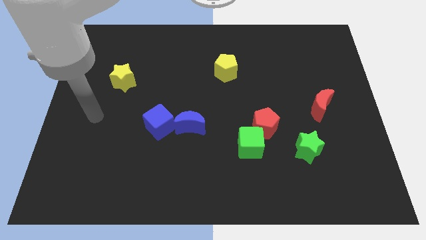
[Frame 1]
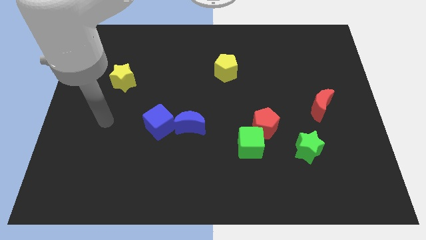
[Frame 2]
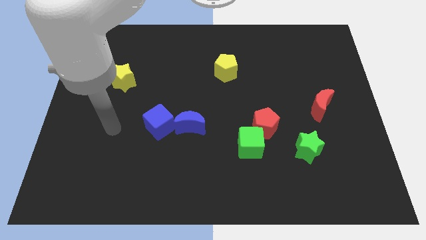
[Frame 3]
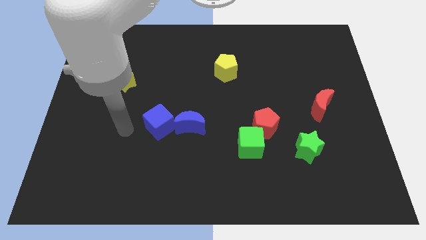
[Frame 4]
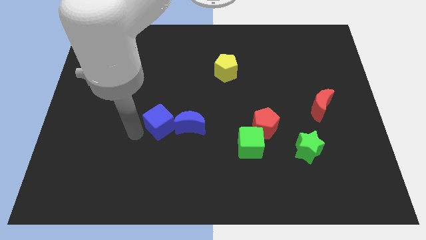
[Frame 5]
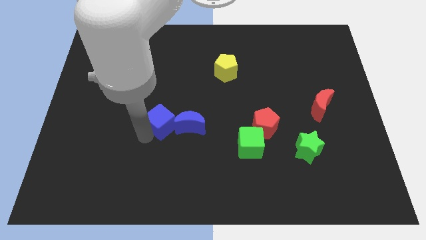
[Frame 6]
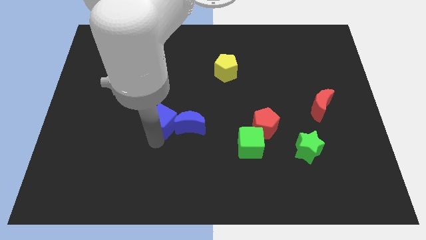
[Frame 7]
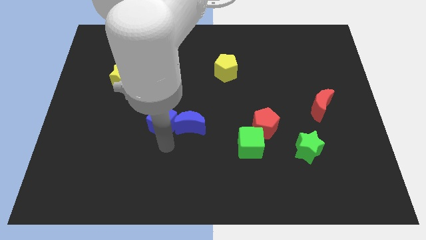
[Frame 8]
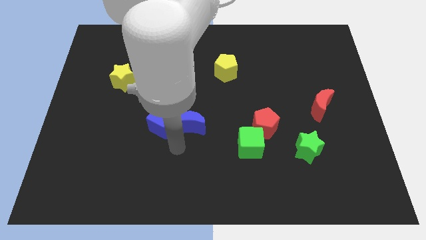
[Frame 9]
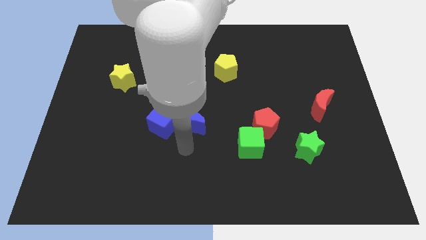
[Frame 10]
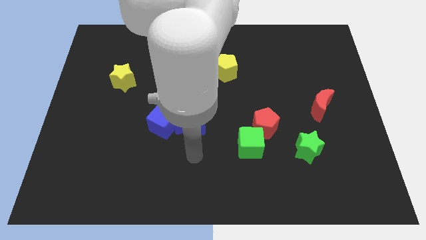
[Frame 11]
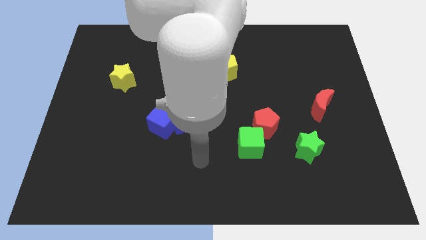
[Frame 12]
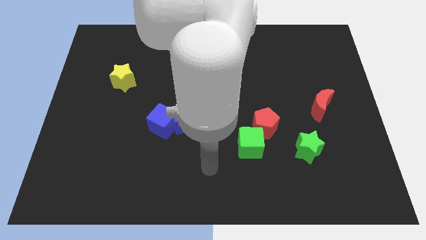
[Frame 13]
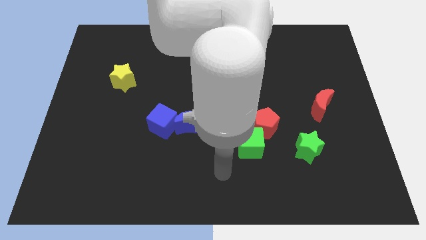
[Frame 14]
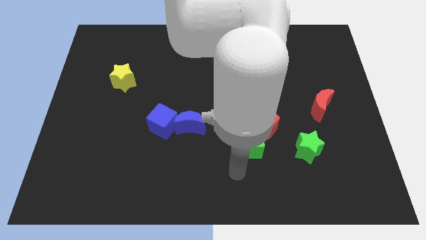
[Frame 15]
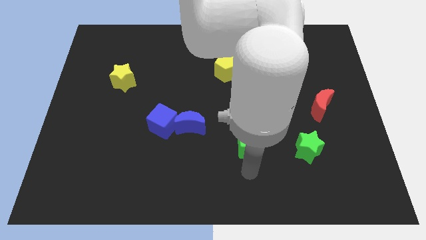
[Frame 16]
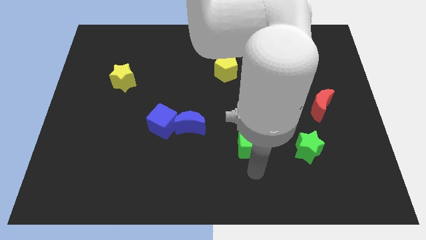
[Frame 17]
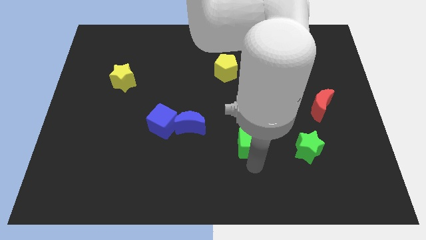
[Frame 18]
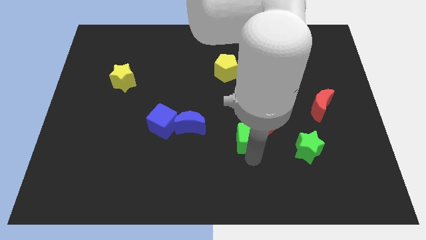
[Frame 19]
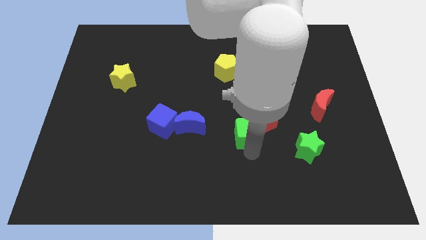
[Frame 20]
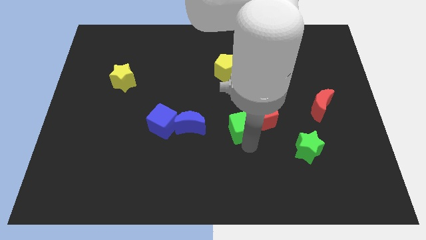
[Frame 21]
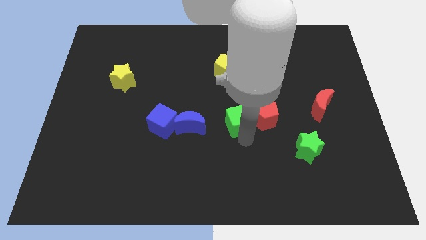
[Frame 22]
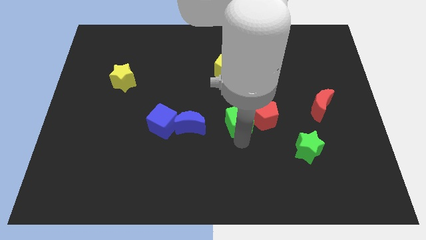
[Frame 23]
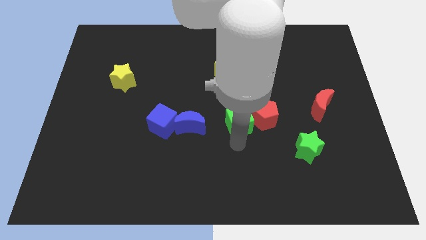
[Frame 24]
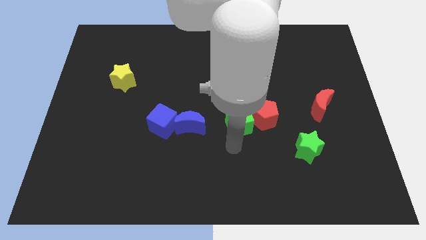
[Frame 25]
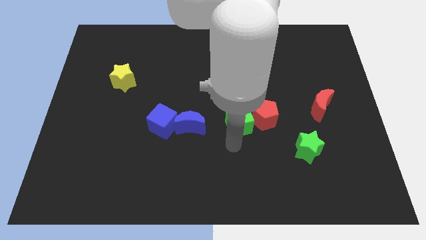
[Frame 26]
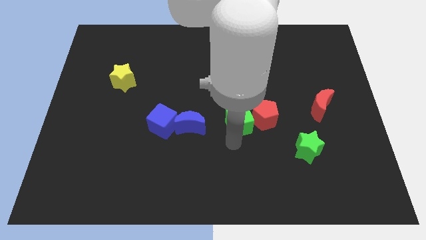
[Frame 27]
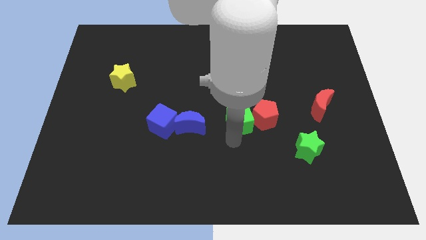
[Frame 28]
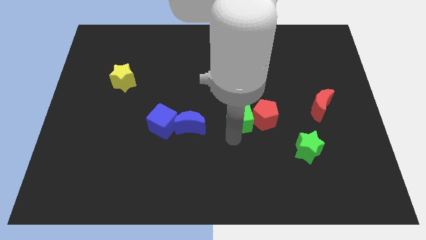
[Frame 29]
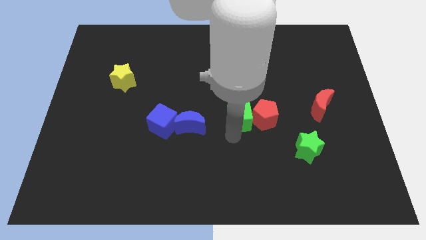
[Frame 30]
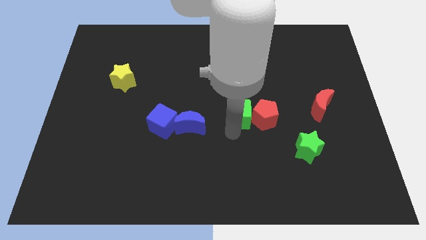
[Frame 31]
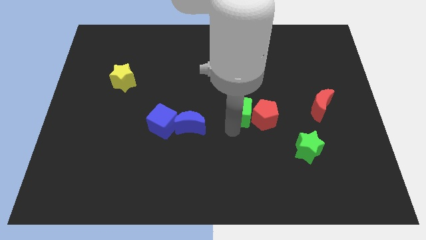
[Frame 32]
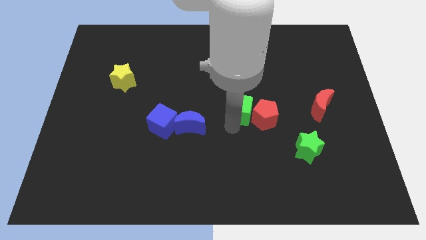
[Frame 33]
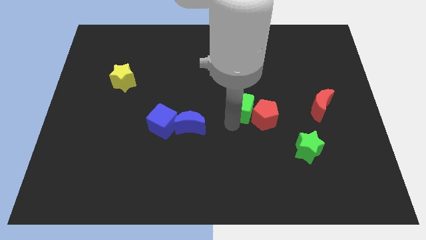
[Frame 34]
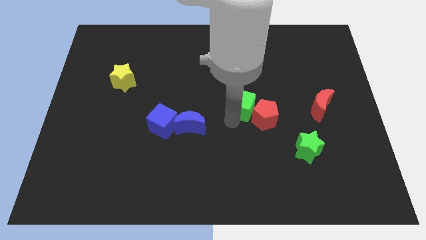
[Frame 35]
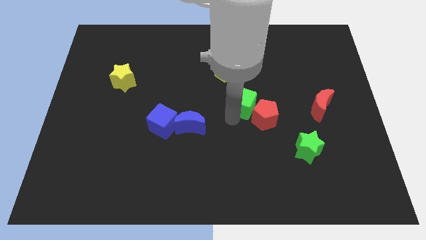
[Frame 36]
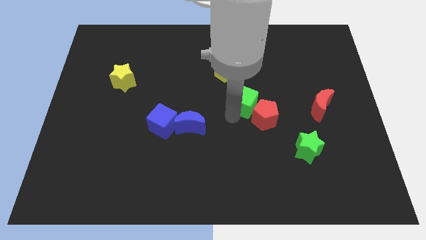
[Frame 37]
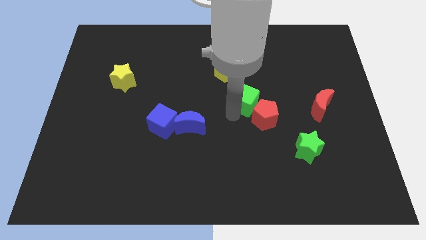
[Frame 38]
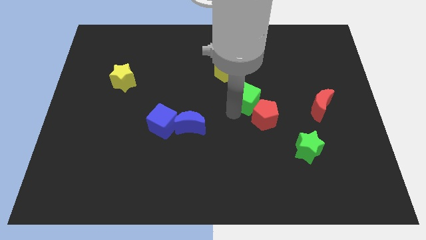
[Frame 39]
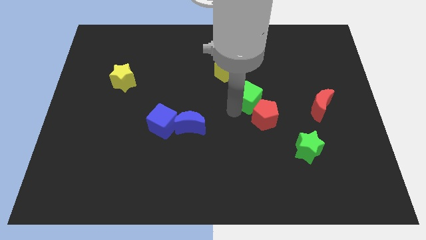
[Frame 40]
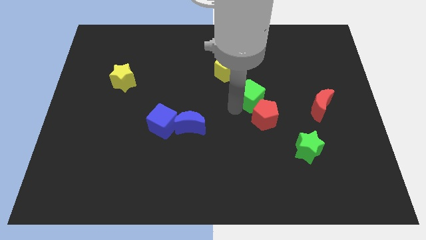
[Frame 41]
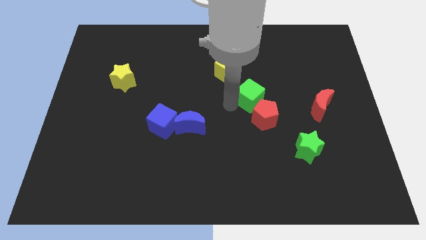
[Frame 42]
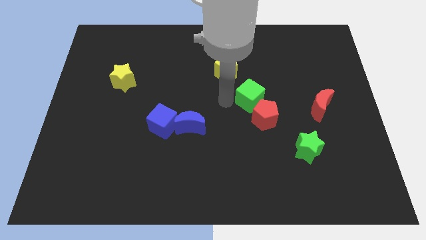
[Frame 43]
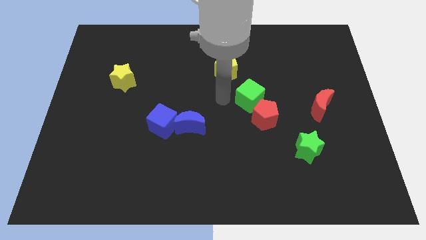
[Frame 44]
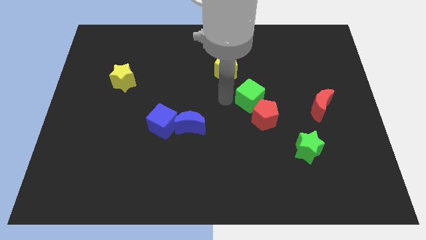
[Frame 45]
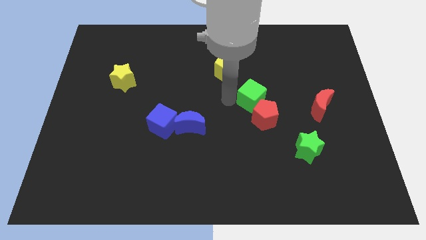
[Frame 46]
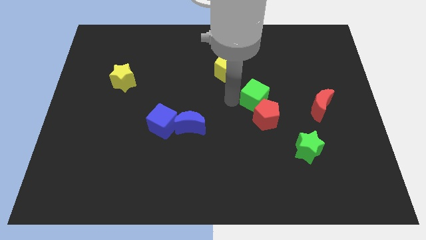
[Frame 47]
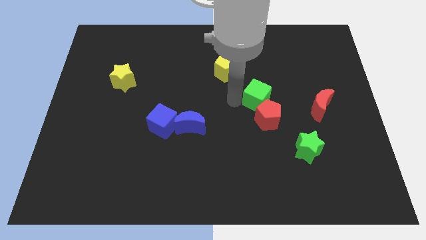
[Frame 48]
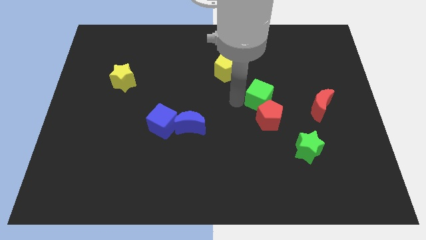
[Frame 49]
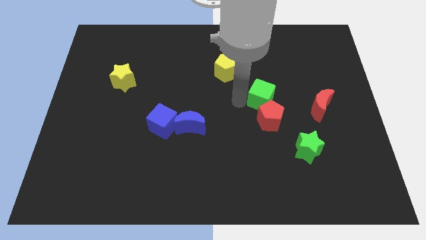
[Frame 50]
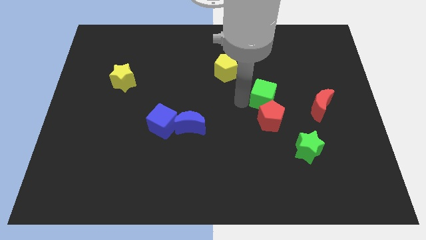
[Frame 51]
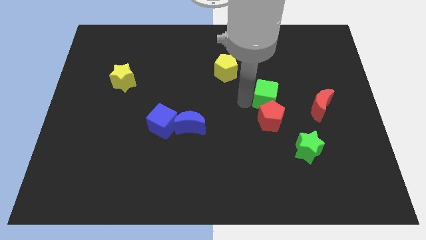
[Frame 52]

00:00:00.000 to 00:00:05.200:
put the green cube diagonally up and to the right of the red pentagon

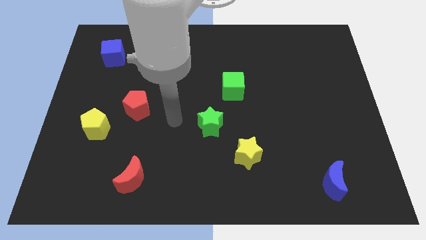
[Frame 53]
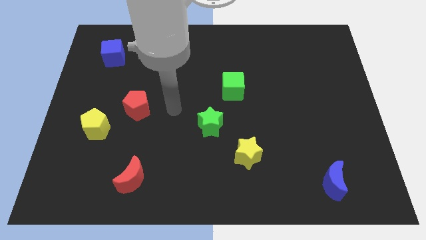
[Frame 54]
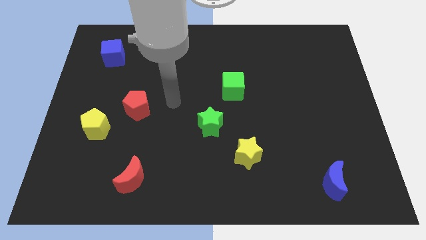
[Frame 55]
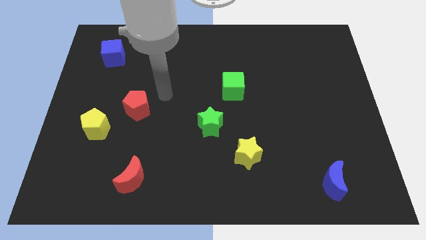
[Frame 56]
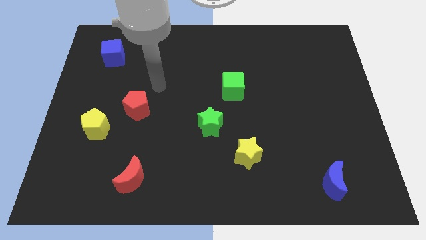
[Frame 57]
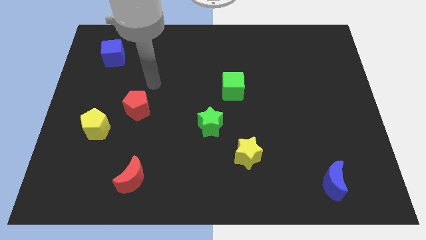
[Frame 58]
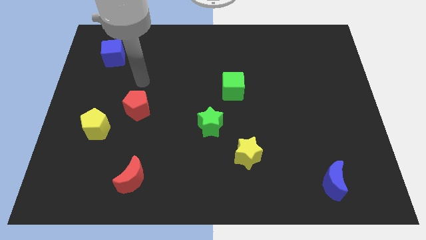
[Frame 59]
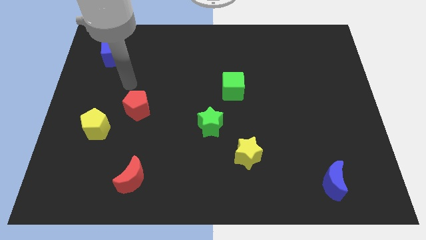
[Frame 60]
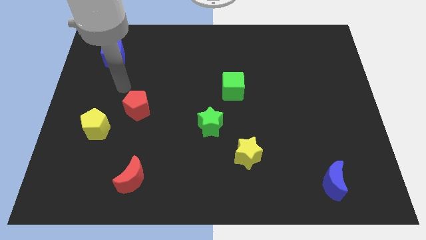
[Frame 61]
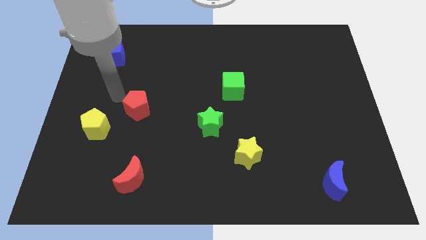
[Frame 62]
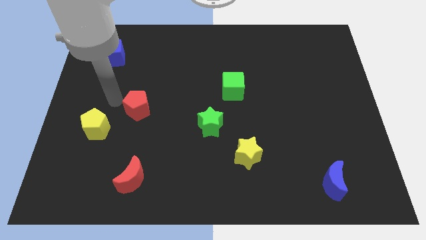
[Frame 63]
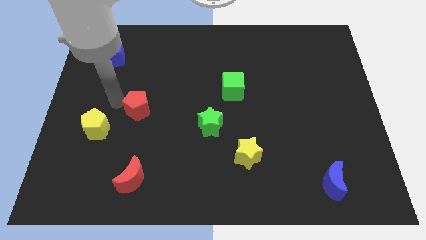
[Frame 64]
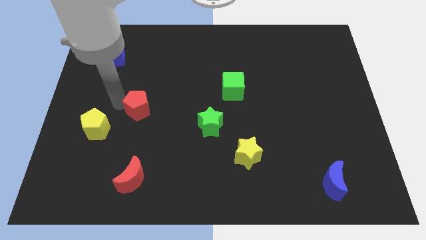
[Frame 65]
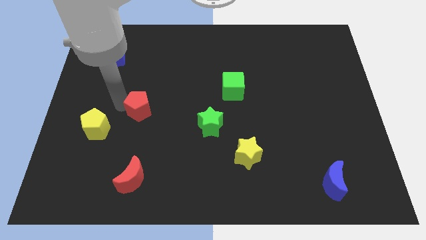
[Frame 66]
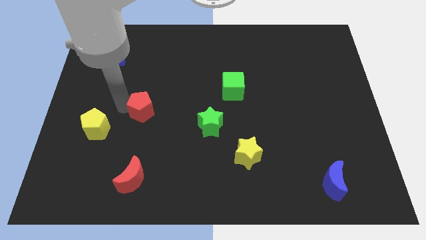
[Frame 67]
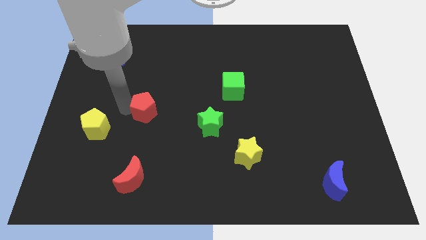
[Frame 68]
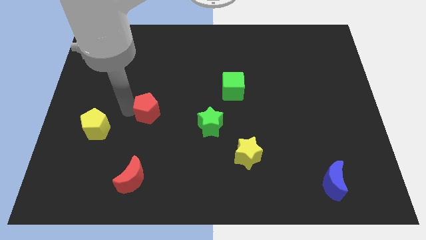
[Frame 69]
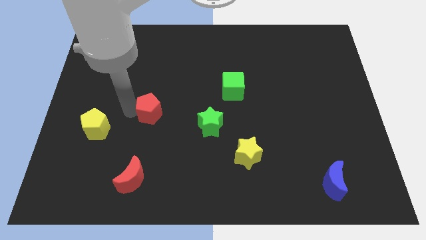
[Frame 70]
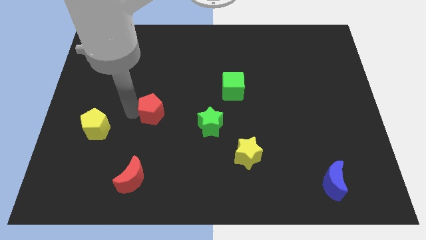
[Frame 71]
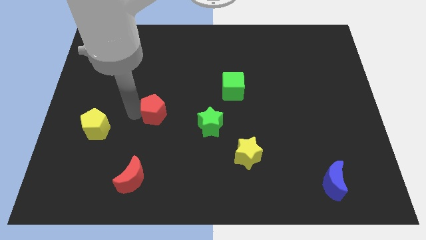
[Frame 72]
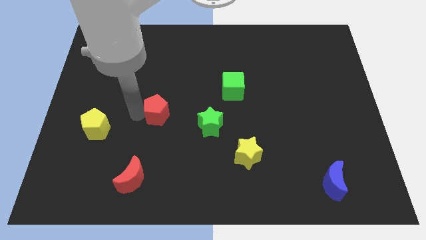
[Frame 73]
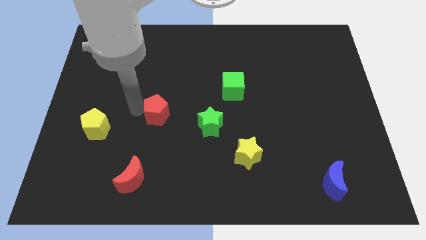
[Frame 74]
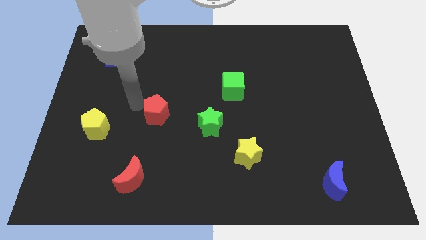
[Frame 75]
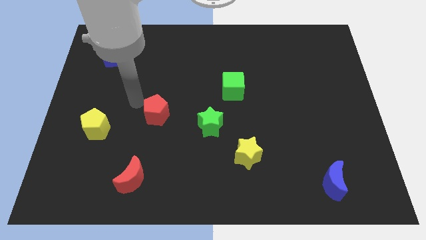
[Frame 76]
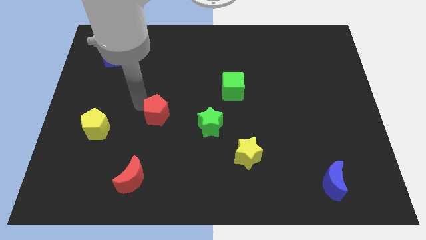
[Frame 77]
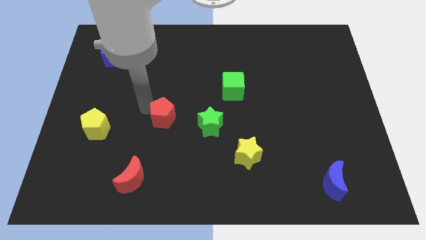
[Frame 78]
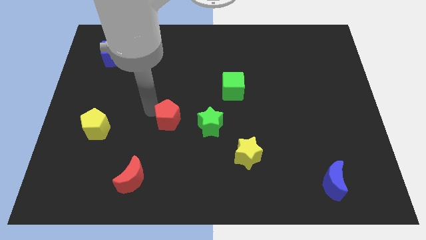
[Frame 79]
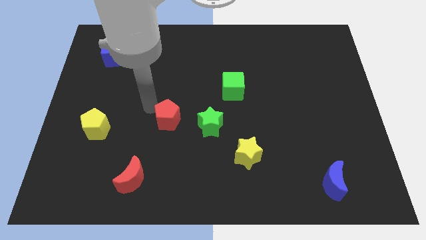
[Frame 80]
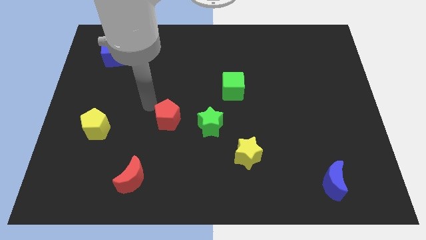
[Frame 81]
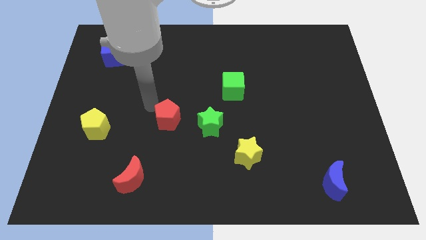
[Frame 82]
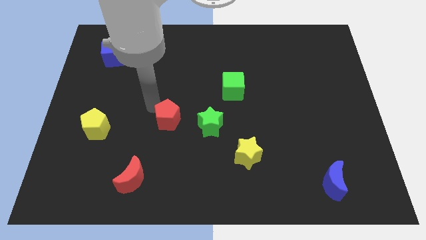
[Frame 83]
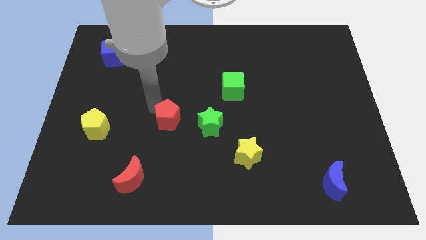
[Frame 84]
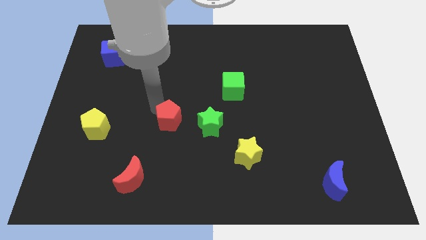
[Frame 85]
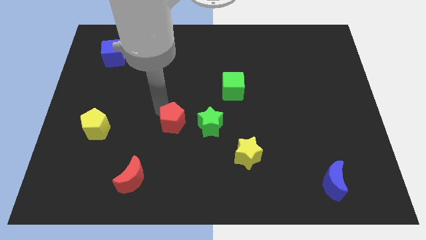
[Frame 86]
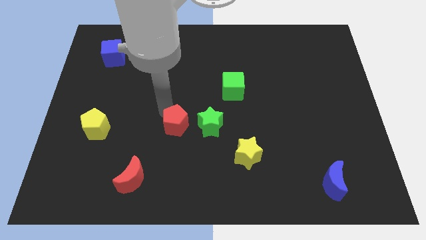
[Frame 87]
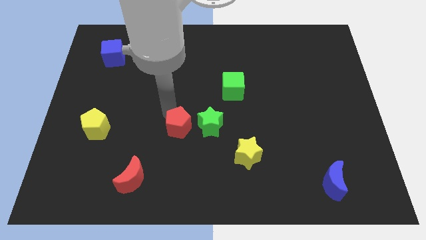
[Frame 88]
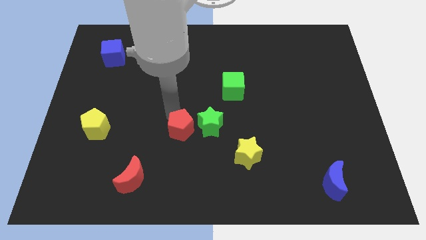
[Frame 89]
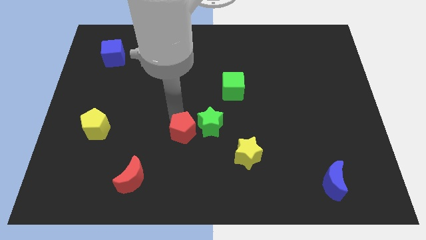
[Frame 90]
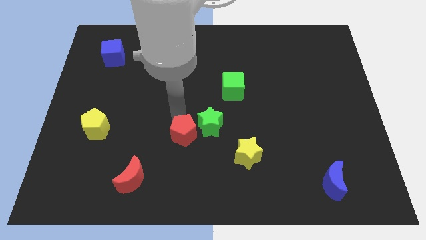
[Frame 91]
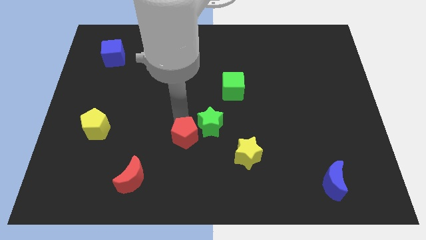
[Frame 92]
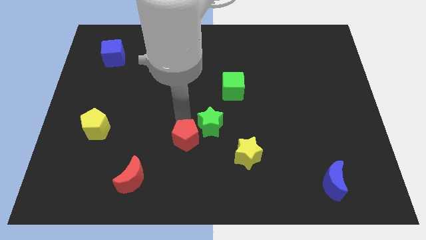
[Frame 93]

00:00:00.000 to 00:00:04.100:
push the red pentagon to the left of the yellow star
